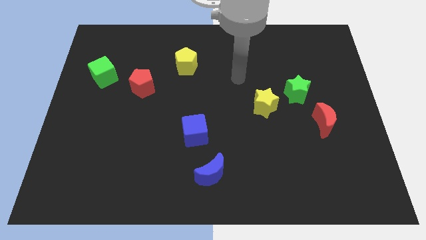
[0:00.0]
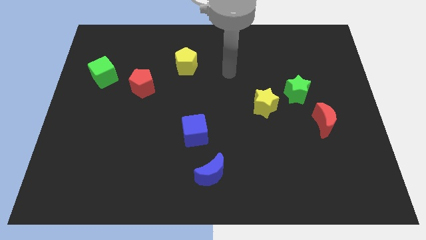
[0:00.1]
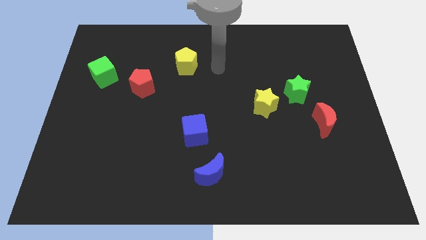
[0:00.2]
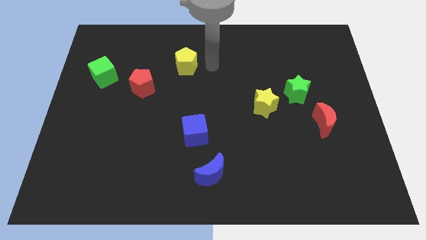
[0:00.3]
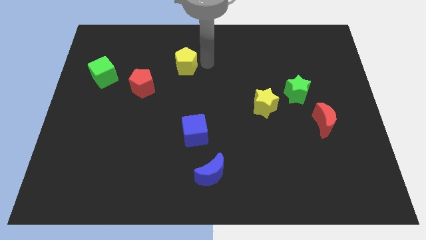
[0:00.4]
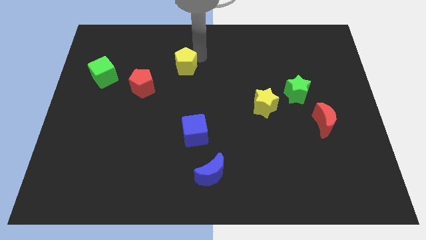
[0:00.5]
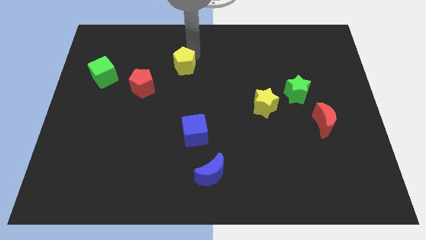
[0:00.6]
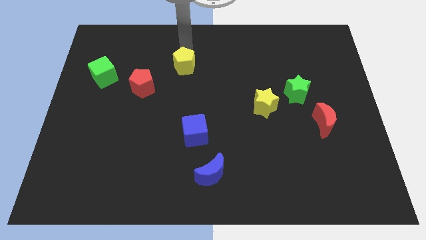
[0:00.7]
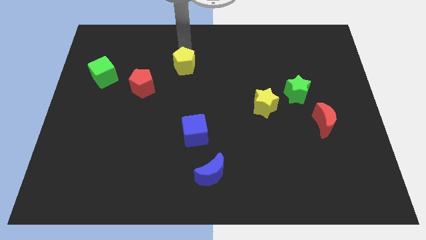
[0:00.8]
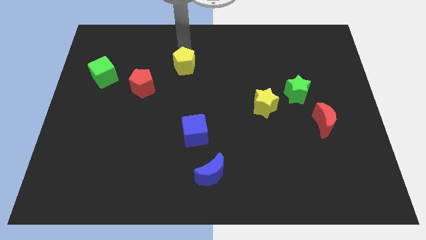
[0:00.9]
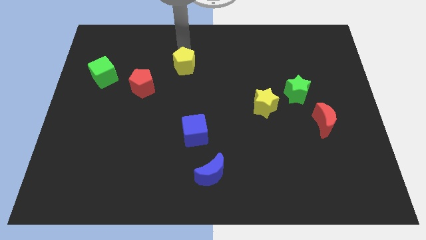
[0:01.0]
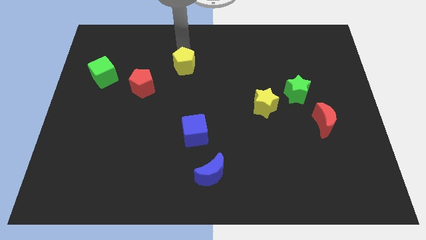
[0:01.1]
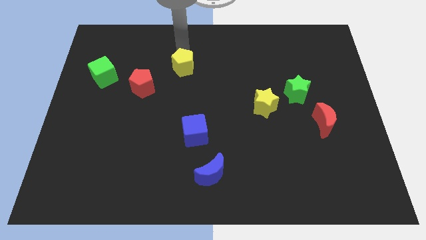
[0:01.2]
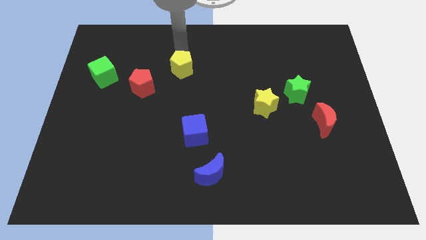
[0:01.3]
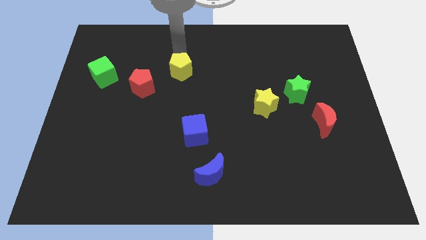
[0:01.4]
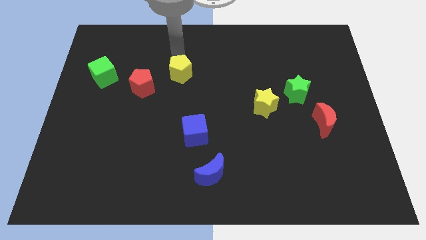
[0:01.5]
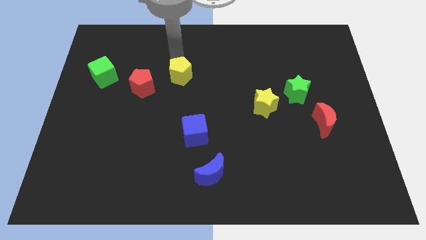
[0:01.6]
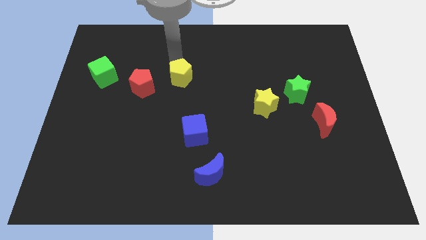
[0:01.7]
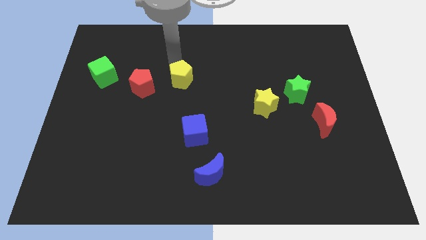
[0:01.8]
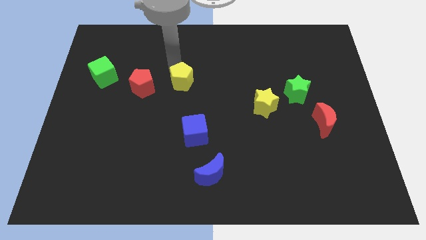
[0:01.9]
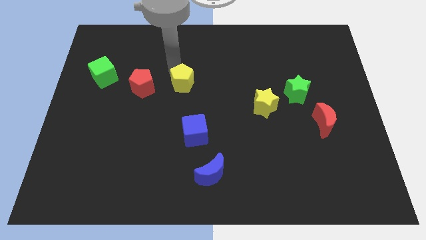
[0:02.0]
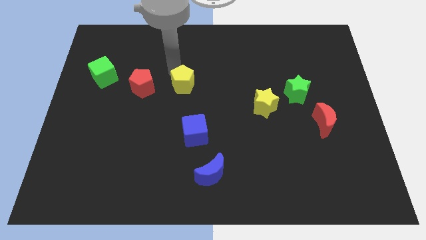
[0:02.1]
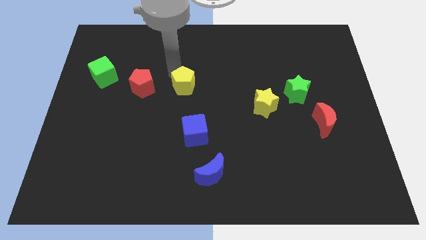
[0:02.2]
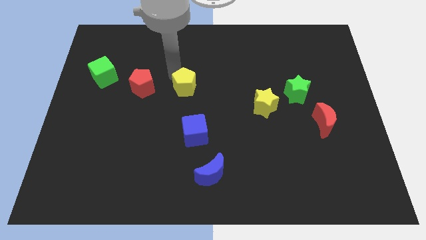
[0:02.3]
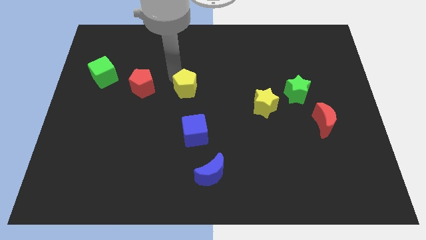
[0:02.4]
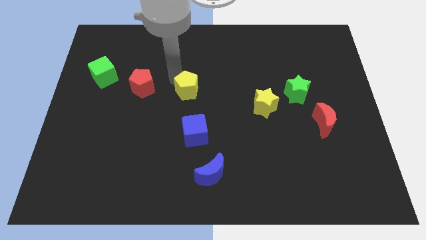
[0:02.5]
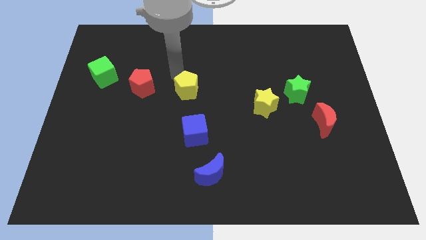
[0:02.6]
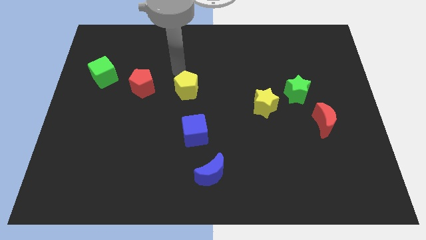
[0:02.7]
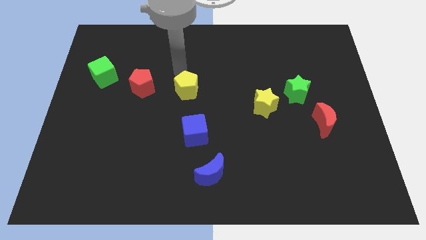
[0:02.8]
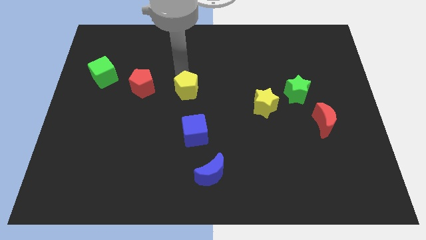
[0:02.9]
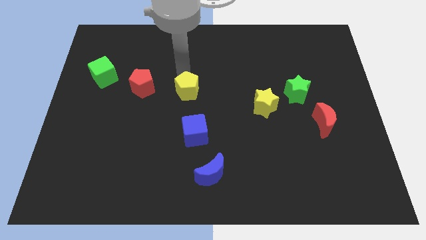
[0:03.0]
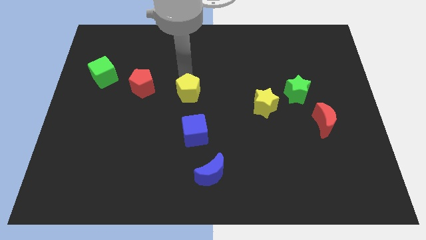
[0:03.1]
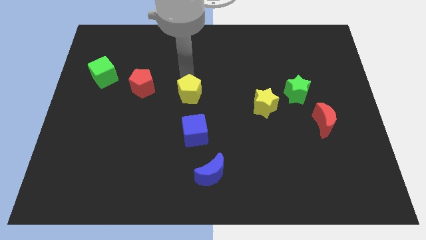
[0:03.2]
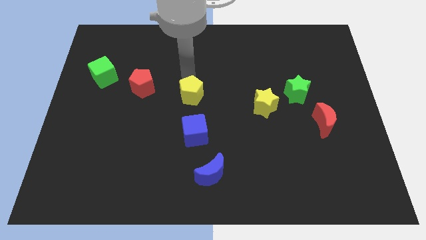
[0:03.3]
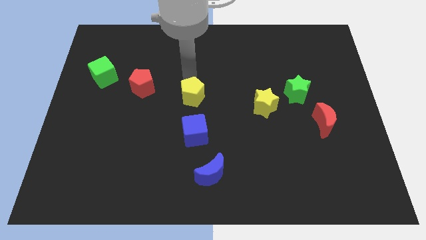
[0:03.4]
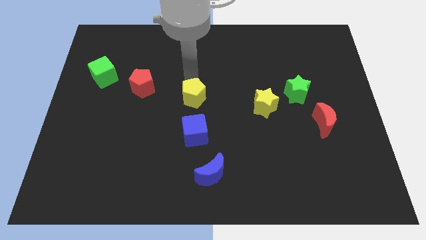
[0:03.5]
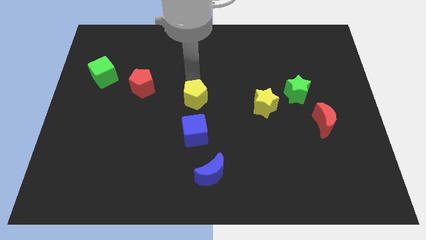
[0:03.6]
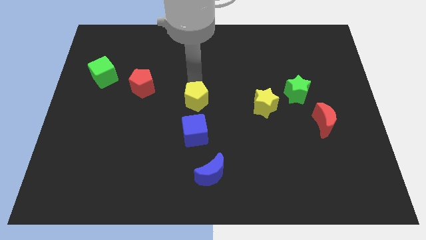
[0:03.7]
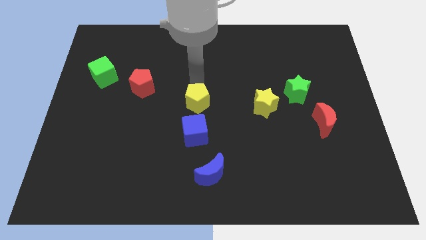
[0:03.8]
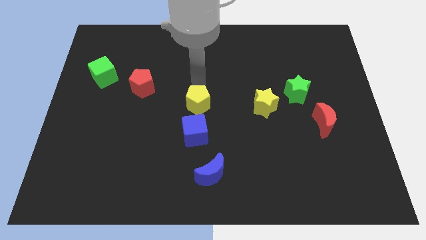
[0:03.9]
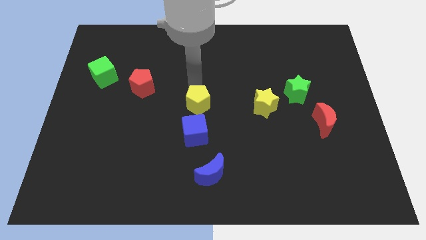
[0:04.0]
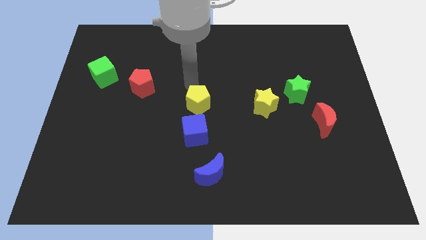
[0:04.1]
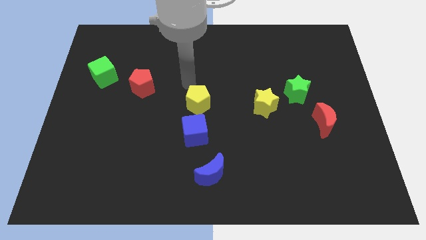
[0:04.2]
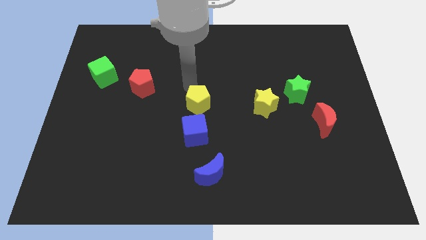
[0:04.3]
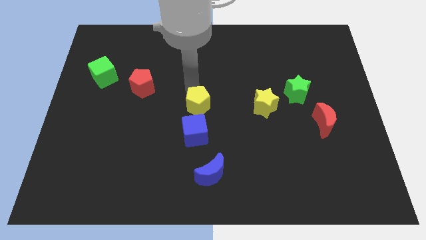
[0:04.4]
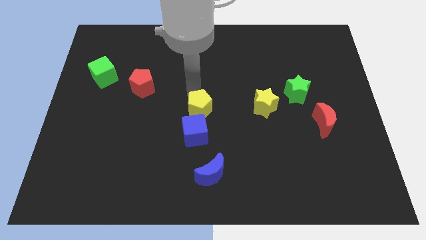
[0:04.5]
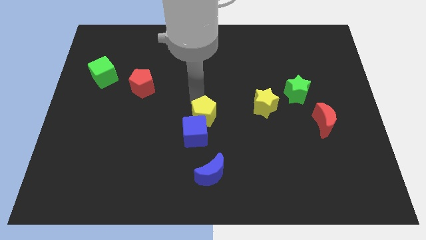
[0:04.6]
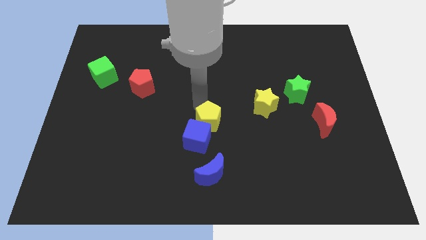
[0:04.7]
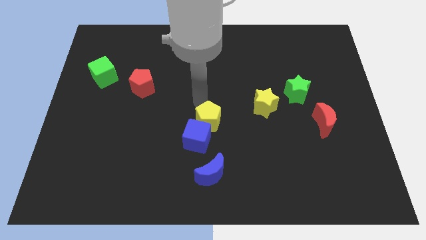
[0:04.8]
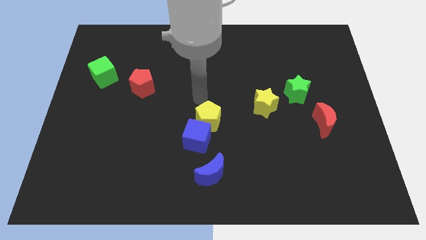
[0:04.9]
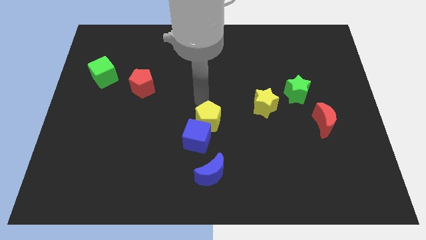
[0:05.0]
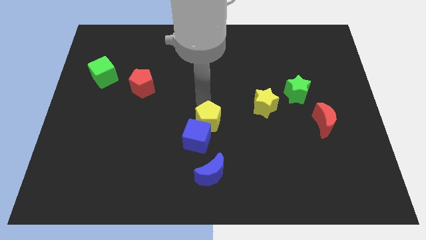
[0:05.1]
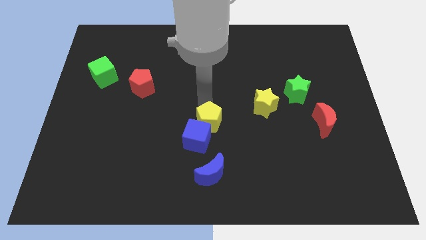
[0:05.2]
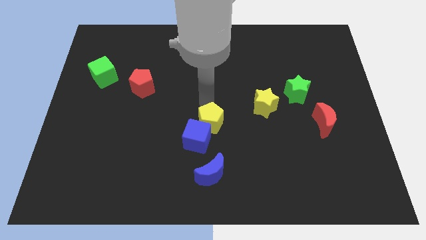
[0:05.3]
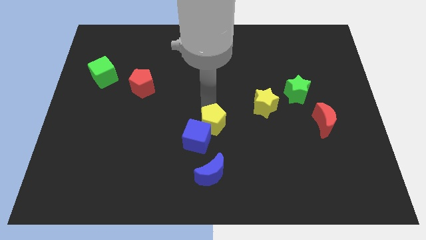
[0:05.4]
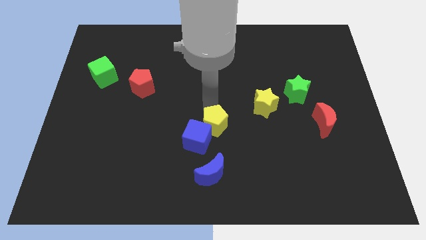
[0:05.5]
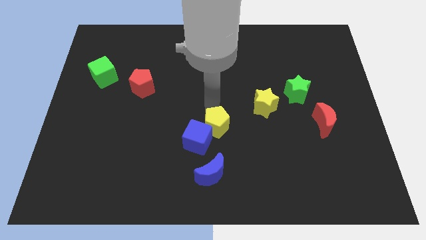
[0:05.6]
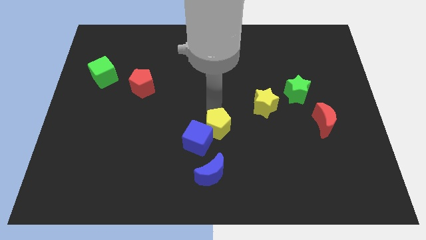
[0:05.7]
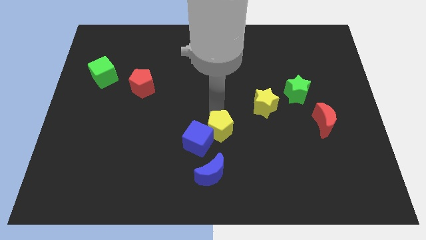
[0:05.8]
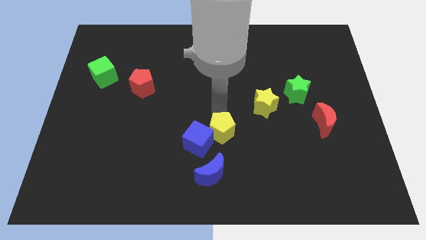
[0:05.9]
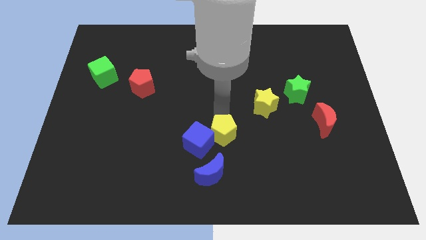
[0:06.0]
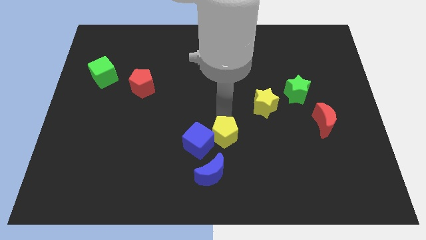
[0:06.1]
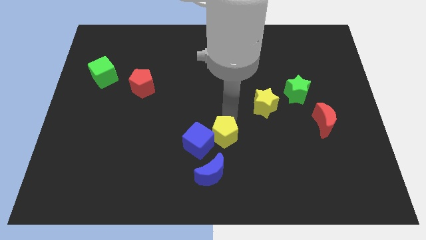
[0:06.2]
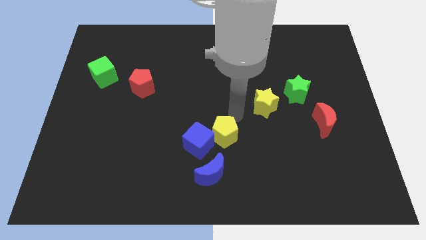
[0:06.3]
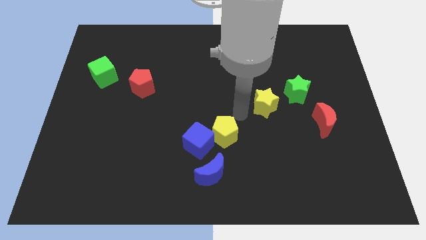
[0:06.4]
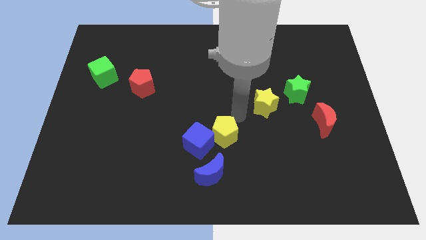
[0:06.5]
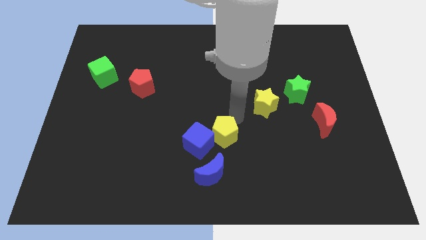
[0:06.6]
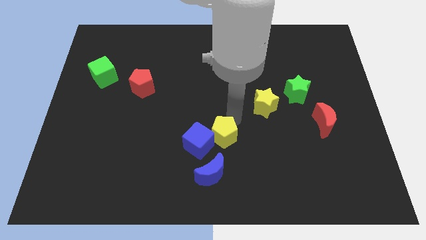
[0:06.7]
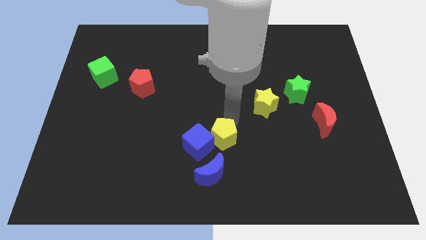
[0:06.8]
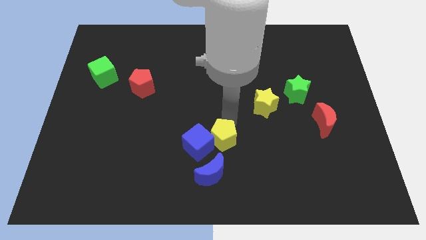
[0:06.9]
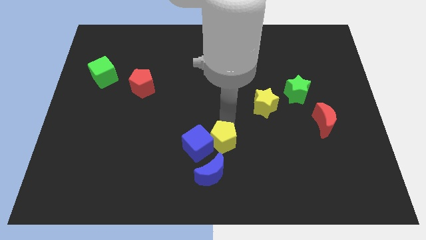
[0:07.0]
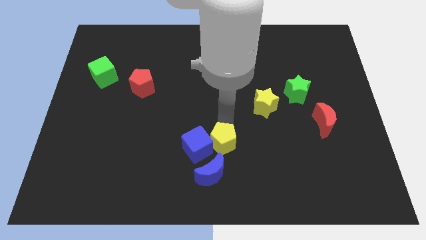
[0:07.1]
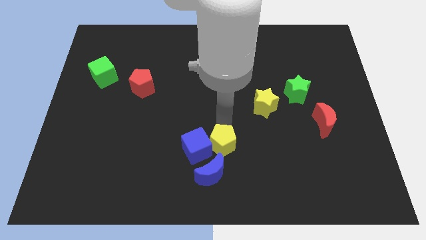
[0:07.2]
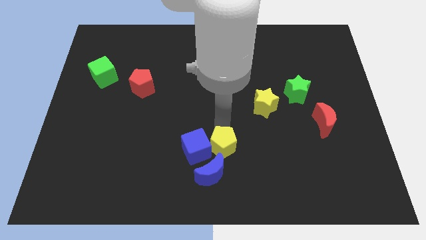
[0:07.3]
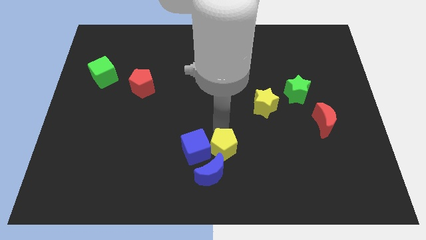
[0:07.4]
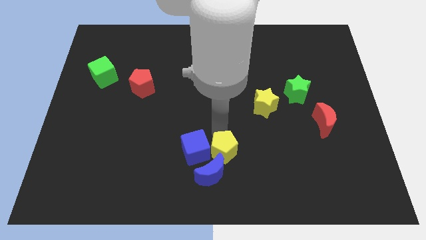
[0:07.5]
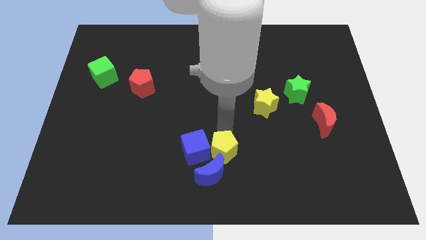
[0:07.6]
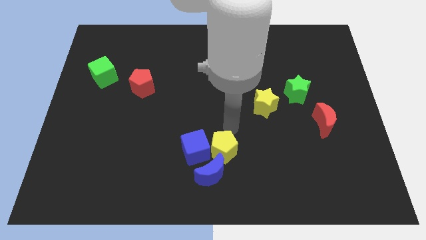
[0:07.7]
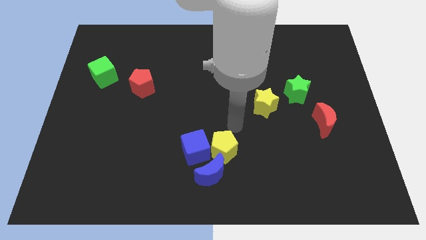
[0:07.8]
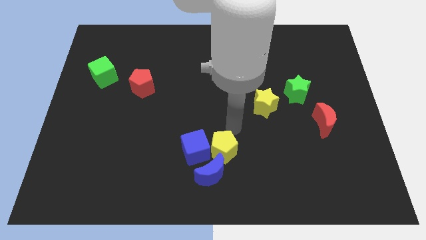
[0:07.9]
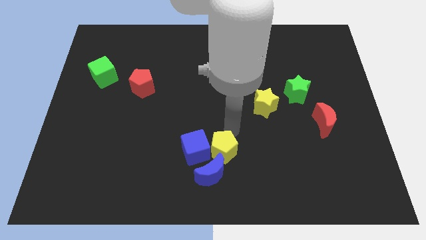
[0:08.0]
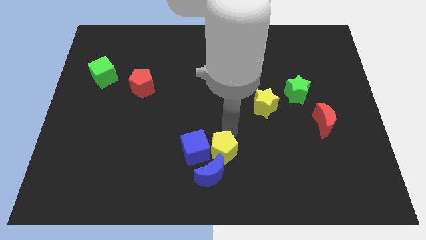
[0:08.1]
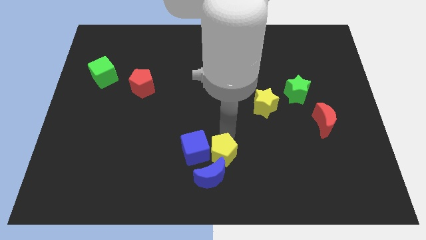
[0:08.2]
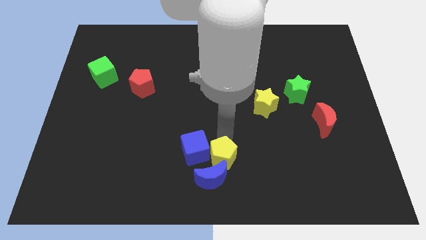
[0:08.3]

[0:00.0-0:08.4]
push the yellow pentagon towards the blue moon
